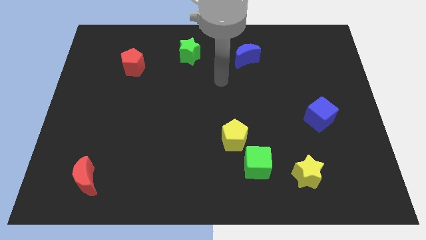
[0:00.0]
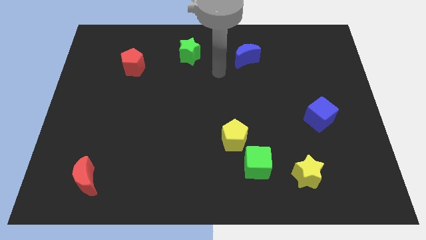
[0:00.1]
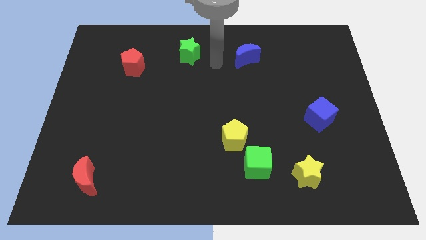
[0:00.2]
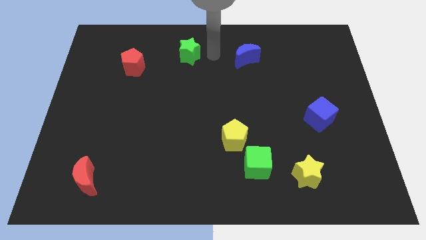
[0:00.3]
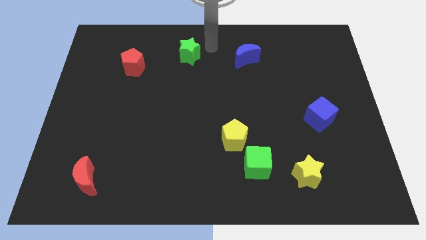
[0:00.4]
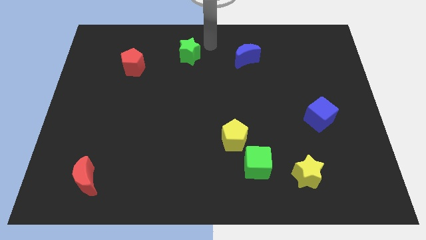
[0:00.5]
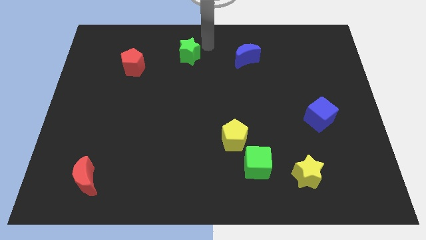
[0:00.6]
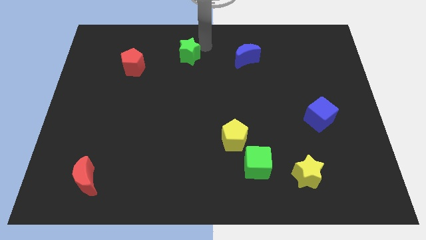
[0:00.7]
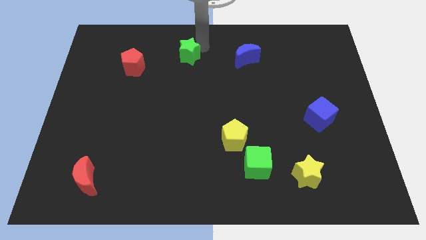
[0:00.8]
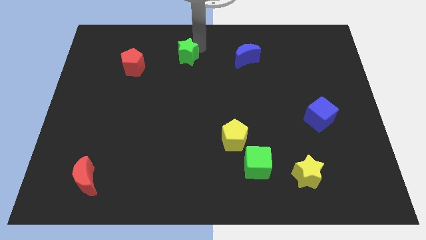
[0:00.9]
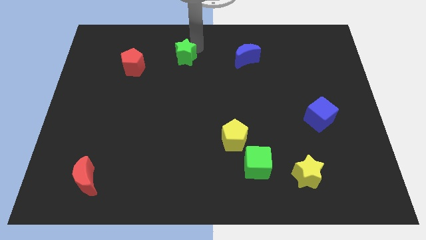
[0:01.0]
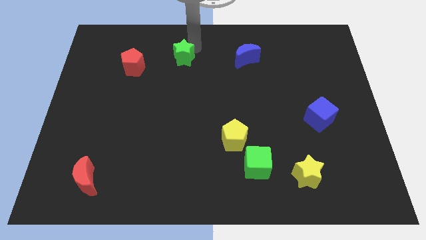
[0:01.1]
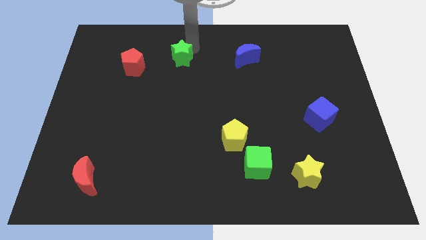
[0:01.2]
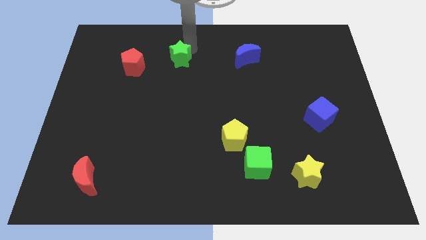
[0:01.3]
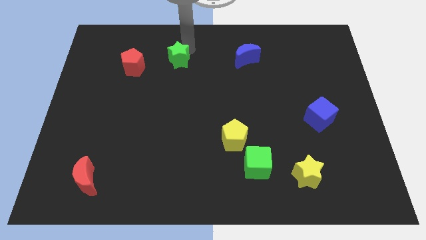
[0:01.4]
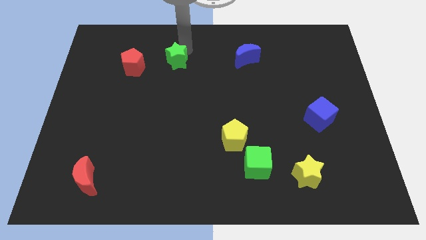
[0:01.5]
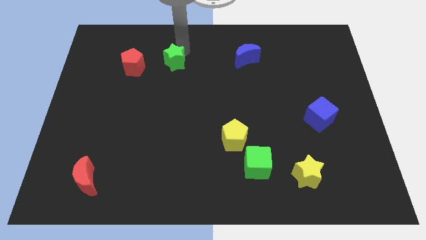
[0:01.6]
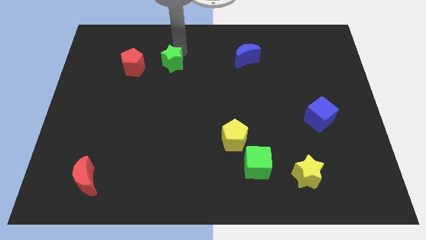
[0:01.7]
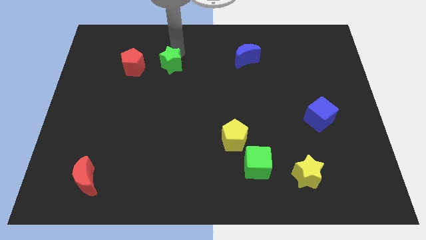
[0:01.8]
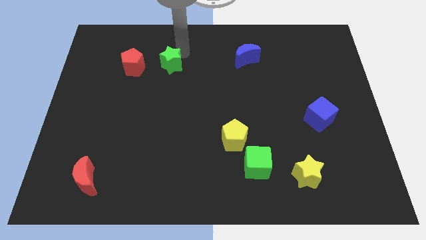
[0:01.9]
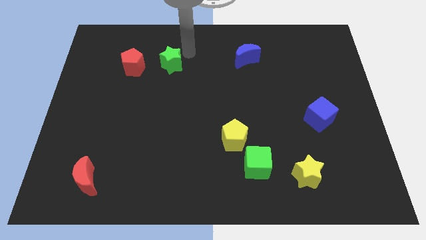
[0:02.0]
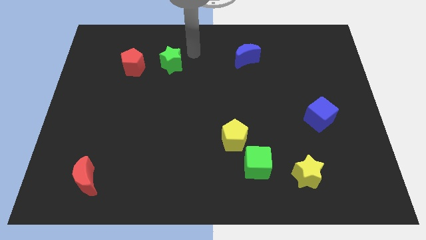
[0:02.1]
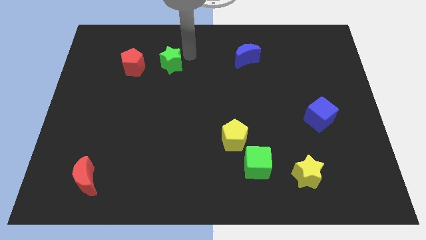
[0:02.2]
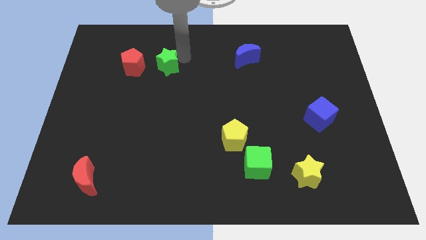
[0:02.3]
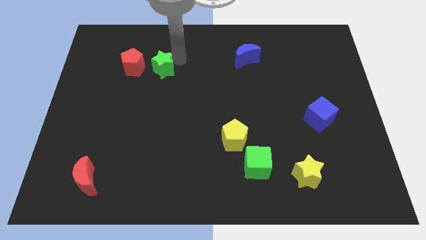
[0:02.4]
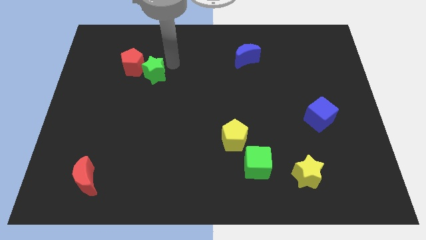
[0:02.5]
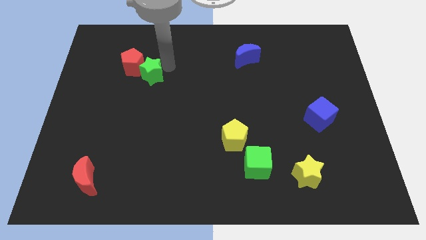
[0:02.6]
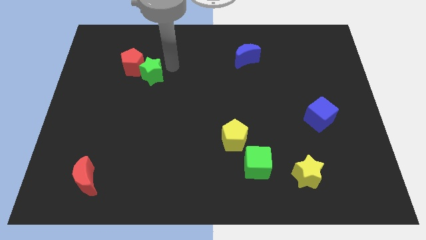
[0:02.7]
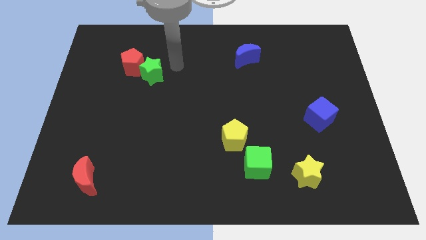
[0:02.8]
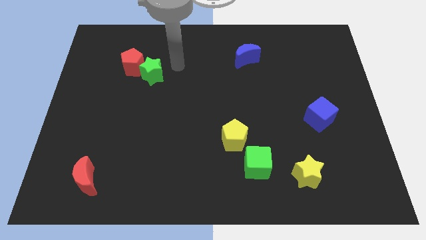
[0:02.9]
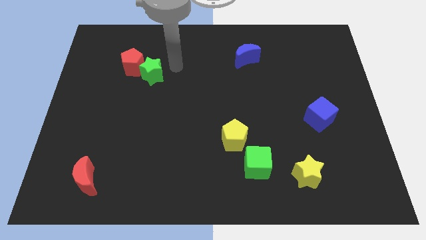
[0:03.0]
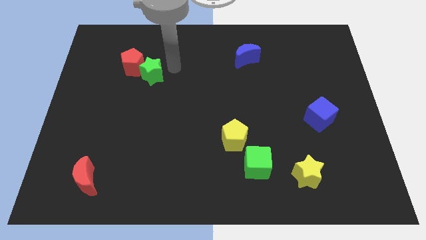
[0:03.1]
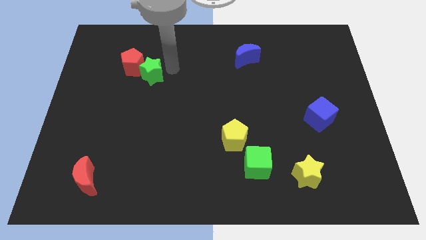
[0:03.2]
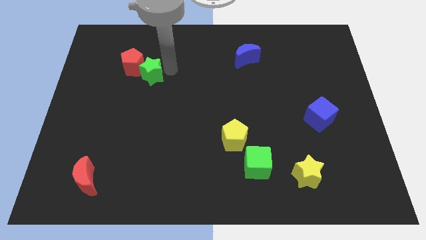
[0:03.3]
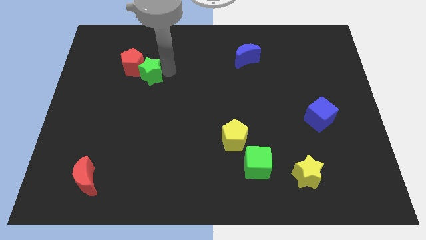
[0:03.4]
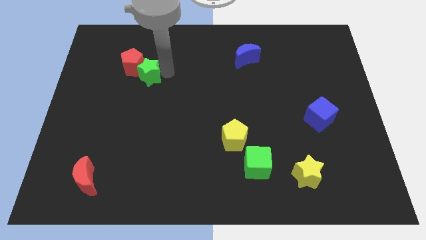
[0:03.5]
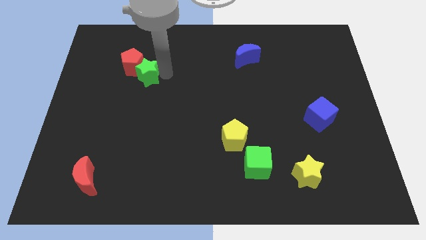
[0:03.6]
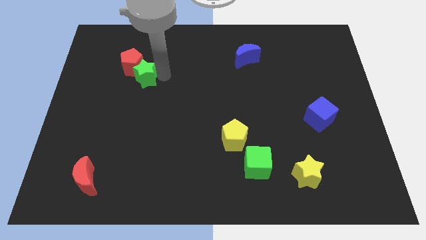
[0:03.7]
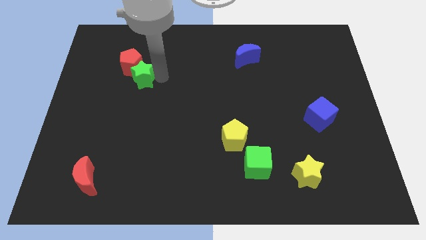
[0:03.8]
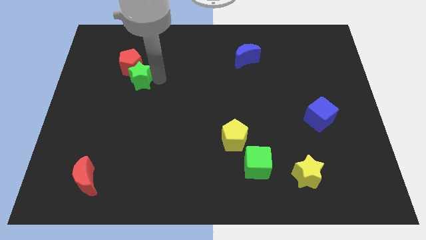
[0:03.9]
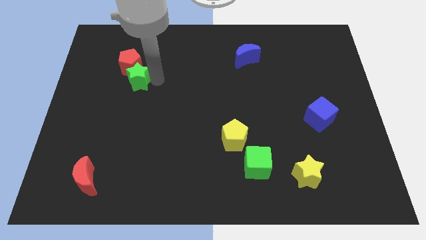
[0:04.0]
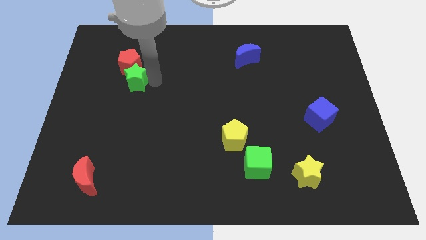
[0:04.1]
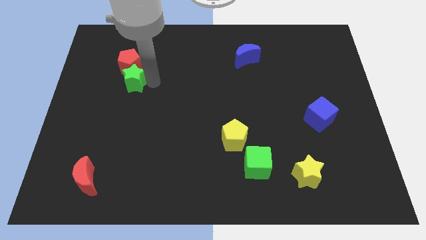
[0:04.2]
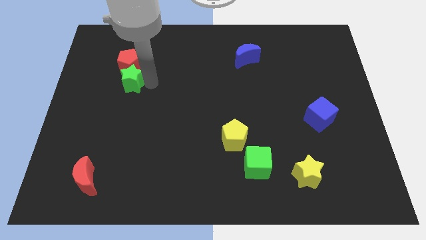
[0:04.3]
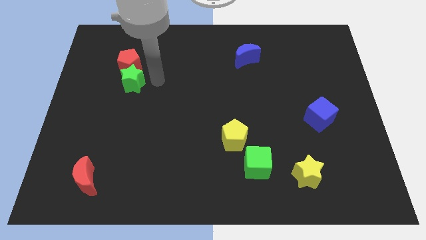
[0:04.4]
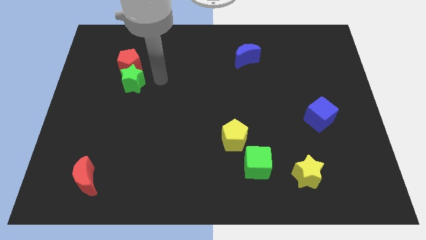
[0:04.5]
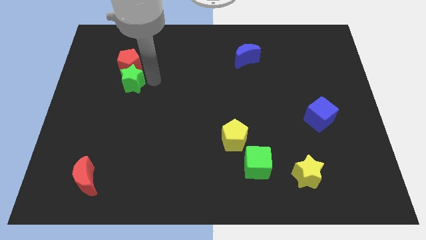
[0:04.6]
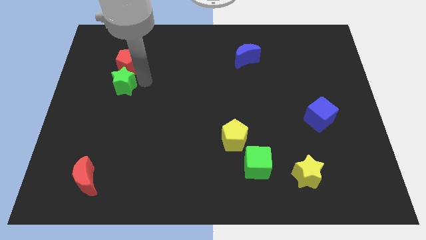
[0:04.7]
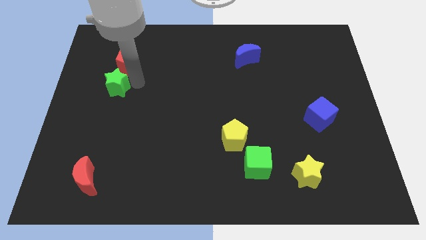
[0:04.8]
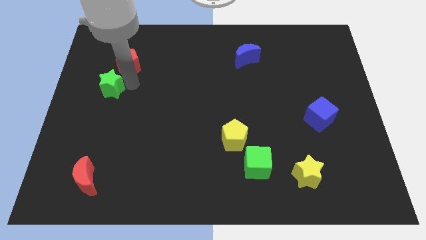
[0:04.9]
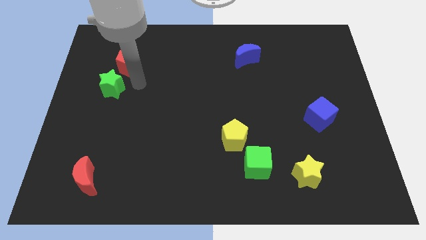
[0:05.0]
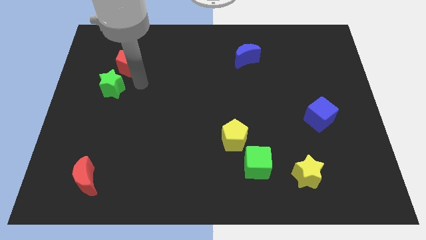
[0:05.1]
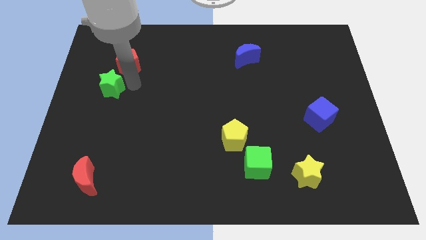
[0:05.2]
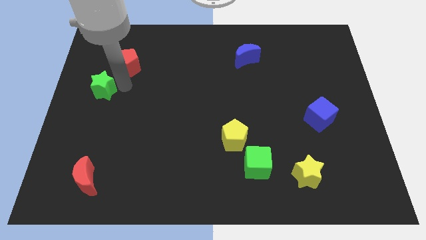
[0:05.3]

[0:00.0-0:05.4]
push the green star to the left side of the board

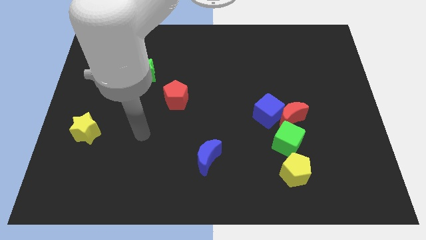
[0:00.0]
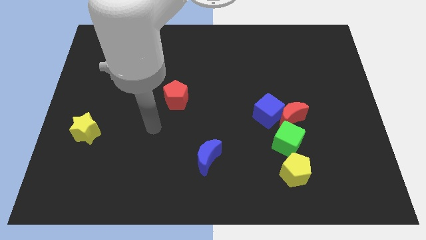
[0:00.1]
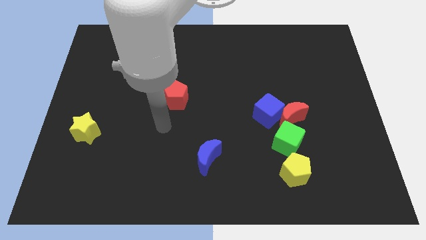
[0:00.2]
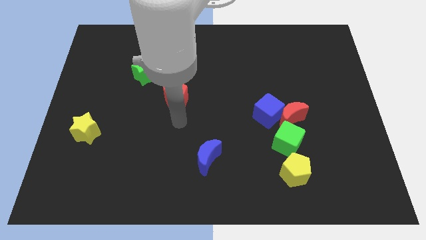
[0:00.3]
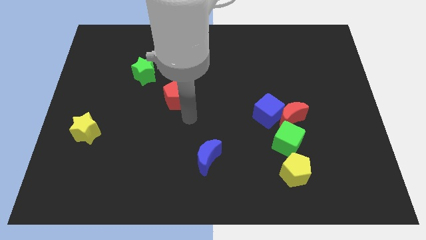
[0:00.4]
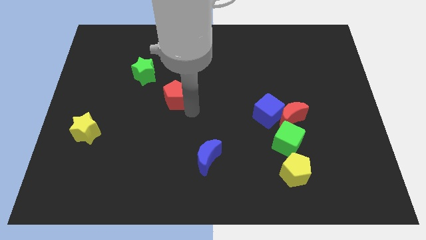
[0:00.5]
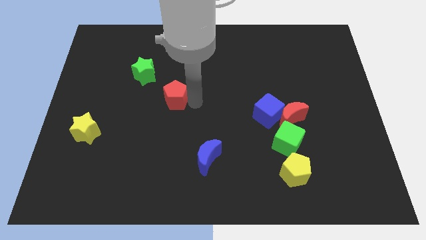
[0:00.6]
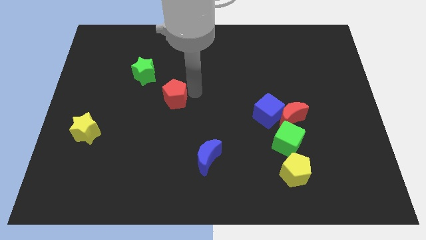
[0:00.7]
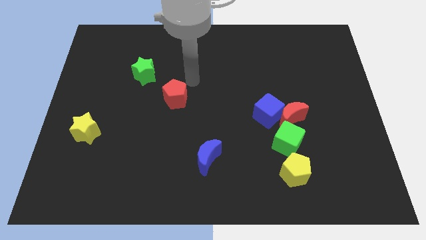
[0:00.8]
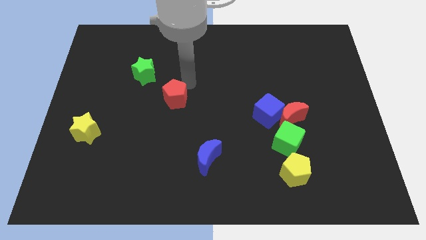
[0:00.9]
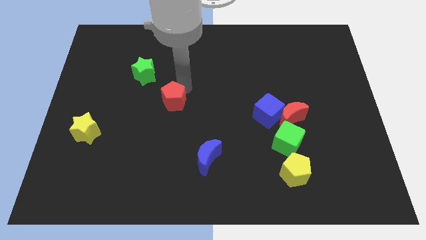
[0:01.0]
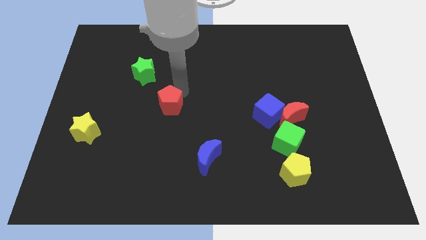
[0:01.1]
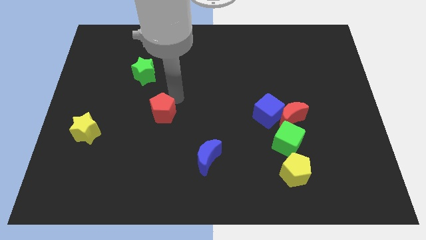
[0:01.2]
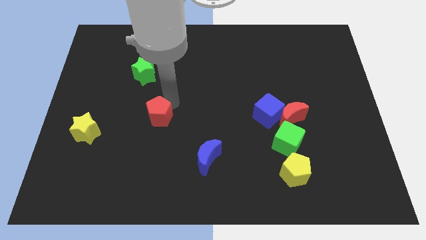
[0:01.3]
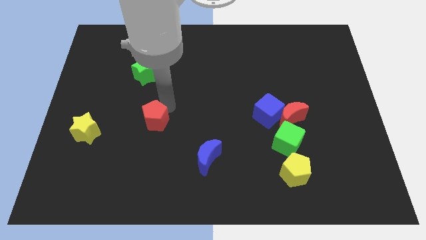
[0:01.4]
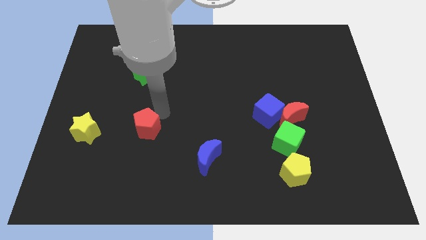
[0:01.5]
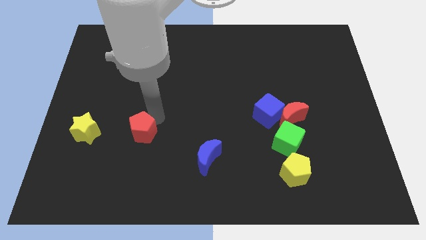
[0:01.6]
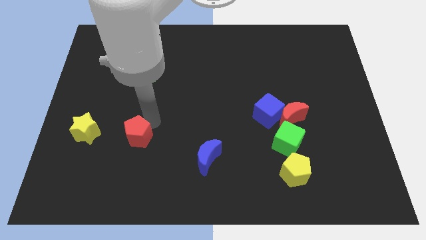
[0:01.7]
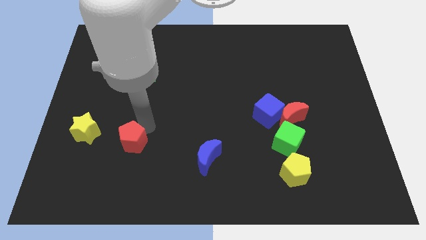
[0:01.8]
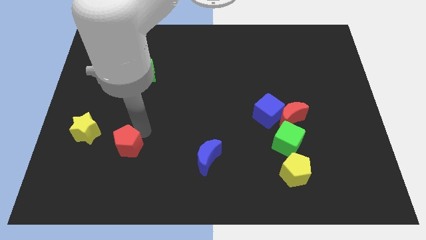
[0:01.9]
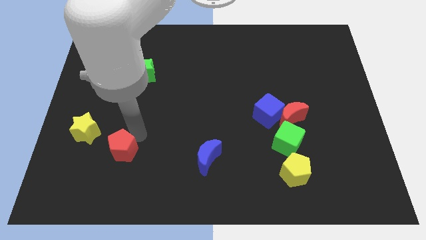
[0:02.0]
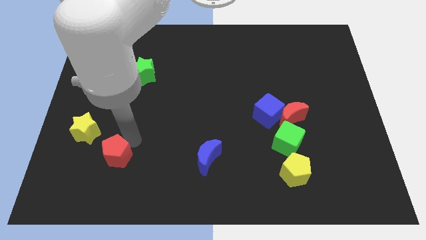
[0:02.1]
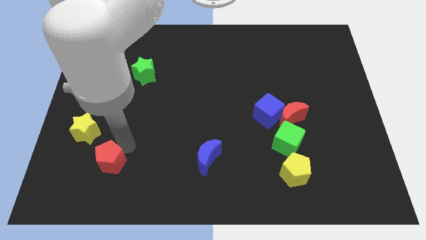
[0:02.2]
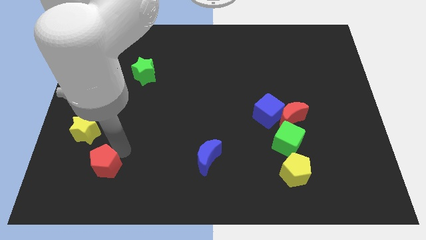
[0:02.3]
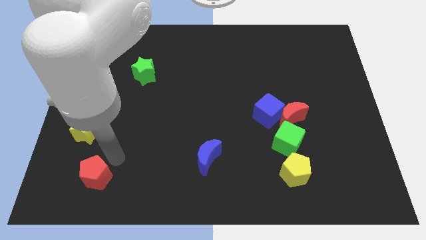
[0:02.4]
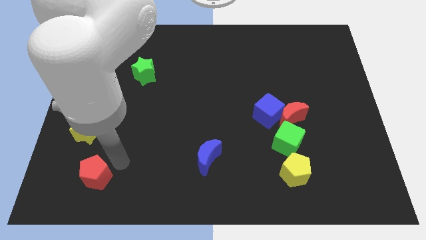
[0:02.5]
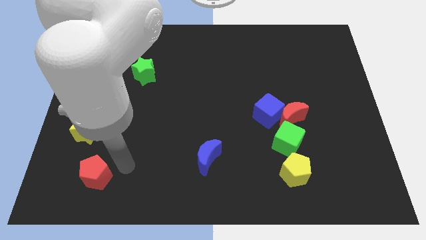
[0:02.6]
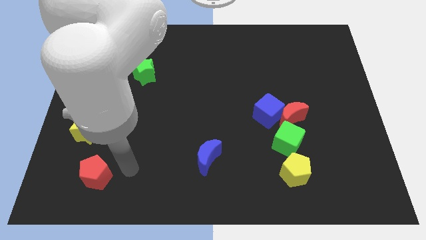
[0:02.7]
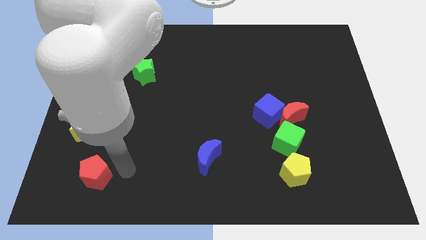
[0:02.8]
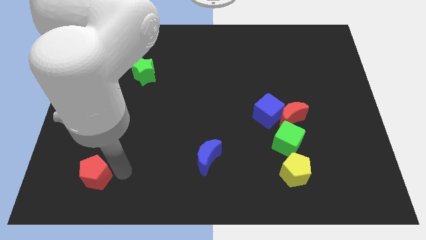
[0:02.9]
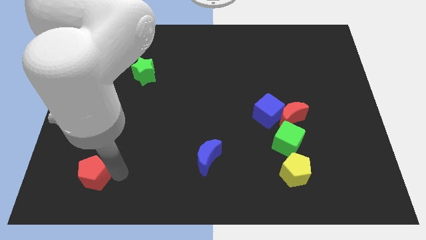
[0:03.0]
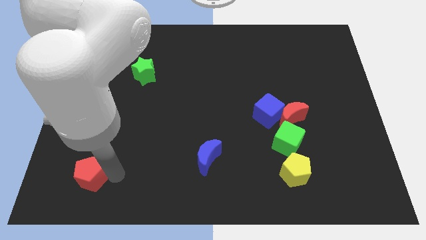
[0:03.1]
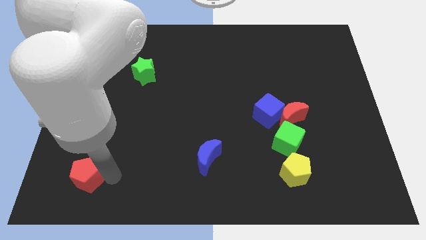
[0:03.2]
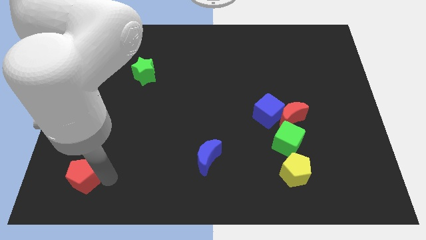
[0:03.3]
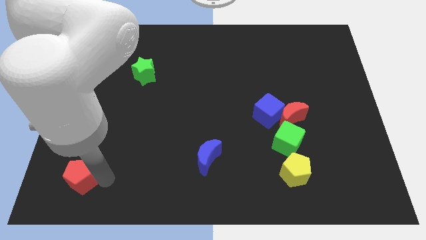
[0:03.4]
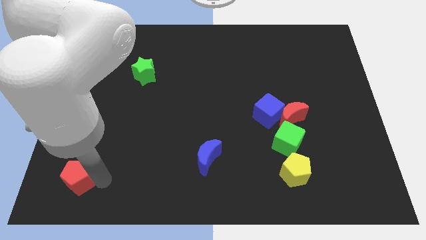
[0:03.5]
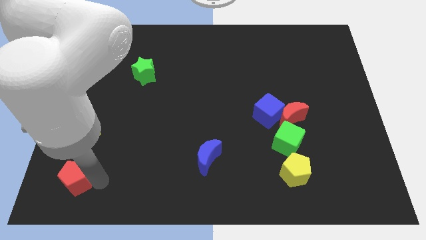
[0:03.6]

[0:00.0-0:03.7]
move the red pentagon to the bottom left
